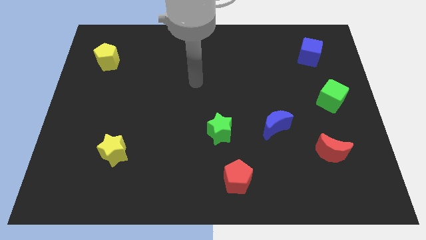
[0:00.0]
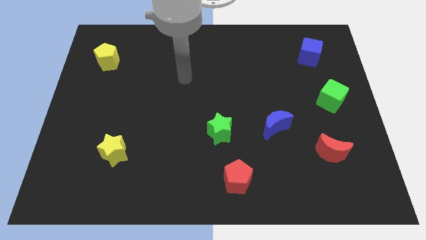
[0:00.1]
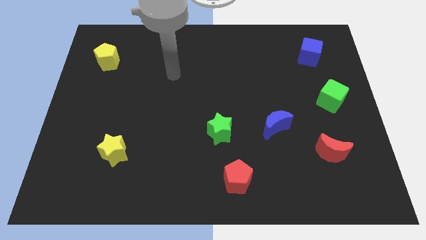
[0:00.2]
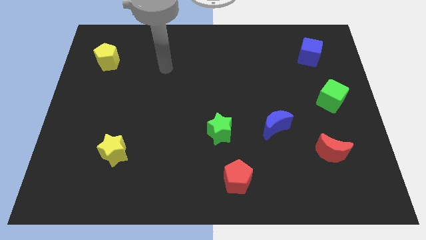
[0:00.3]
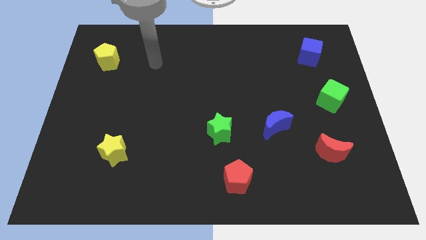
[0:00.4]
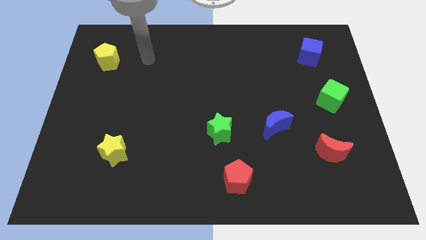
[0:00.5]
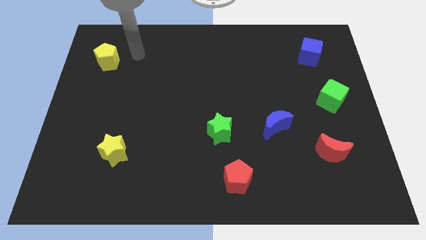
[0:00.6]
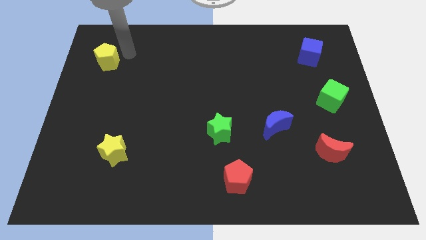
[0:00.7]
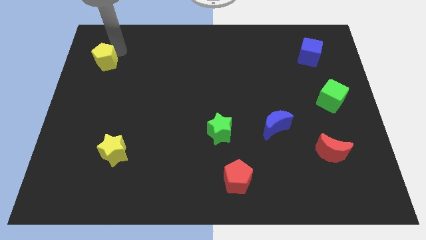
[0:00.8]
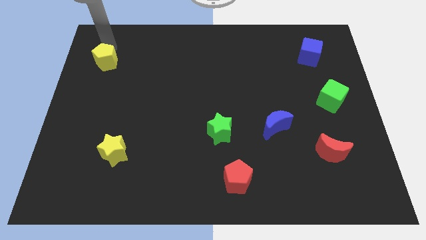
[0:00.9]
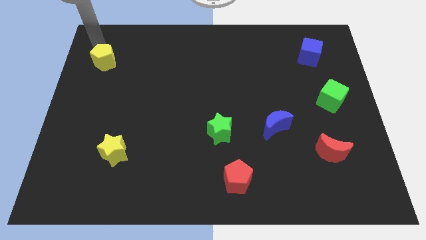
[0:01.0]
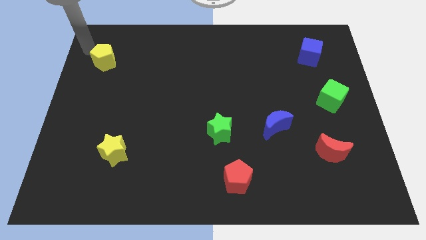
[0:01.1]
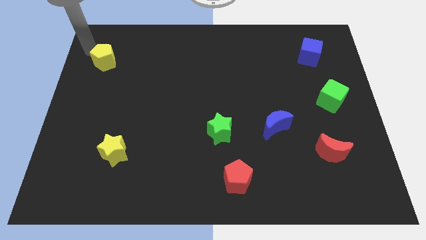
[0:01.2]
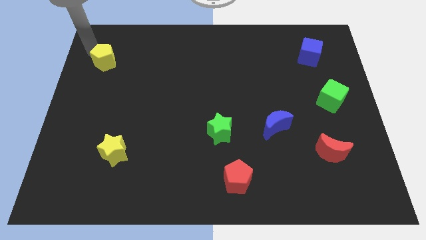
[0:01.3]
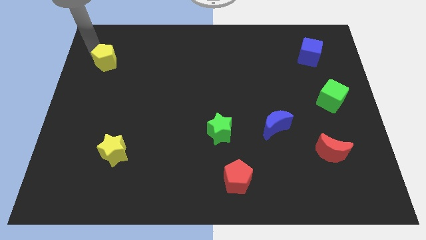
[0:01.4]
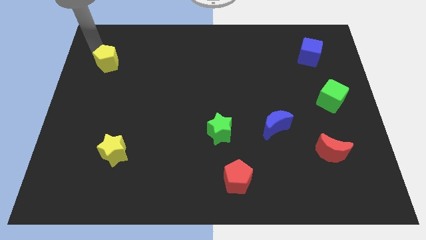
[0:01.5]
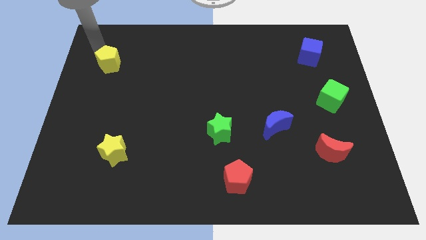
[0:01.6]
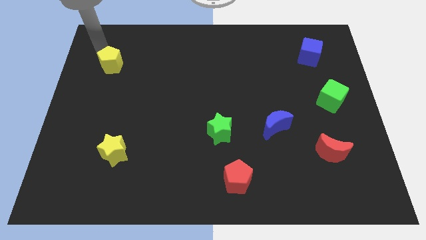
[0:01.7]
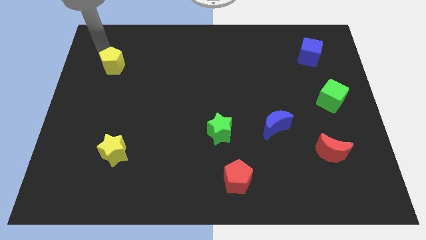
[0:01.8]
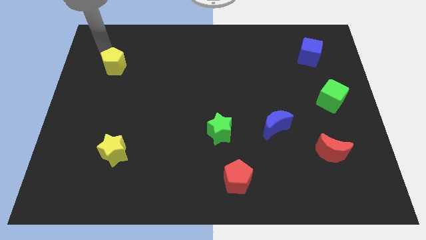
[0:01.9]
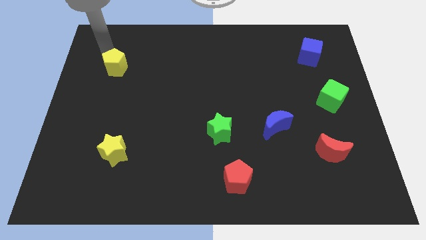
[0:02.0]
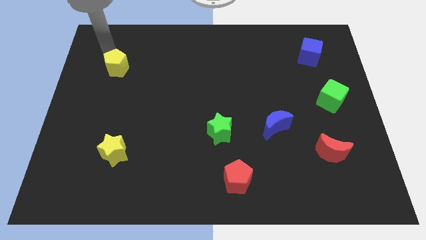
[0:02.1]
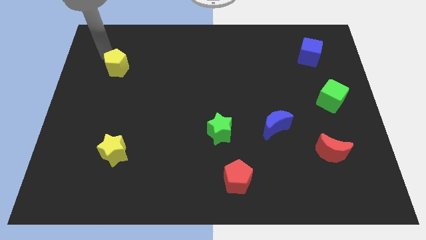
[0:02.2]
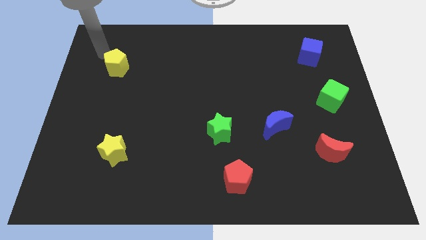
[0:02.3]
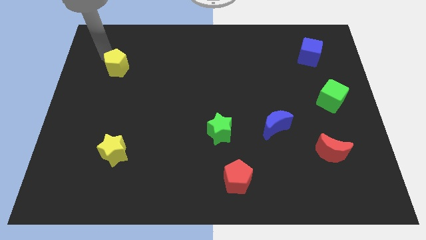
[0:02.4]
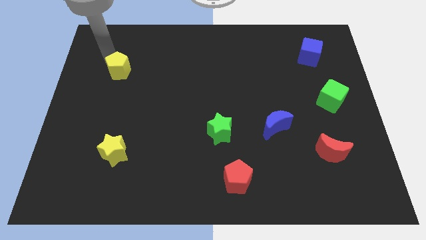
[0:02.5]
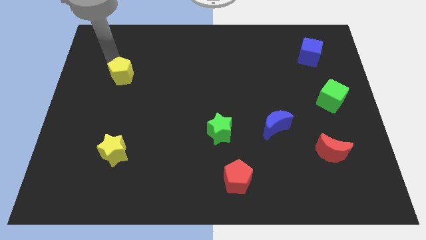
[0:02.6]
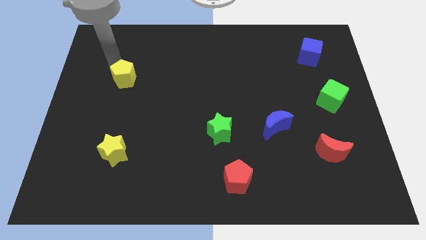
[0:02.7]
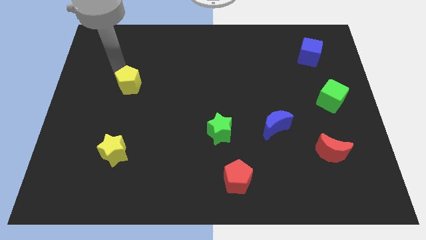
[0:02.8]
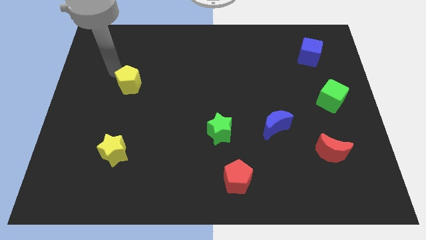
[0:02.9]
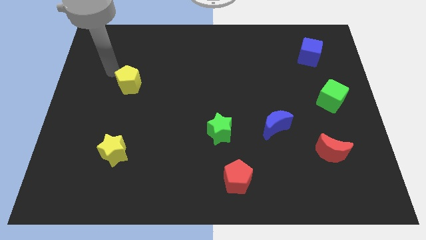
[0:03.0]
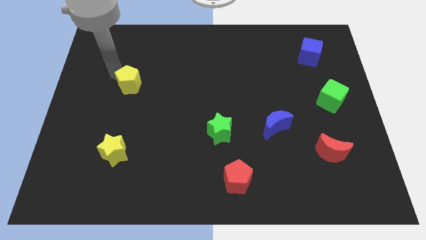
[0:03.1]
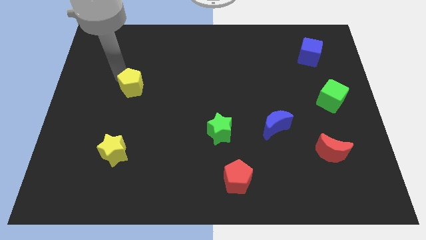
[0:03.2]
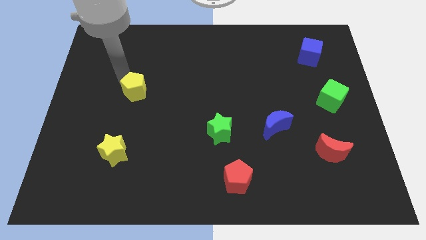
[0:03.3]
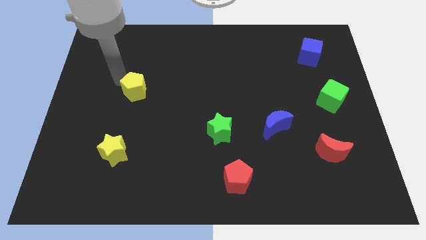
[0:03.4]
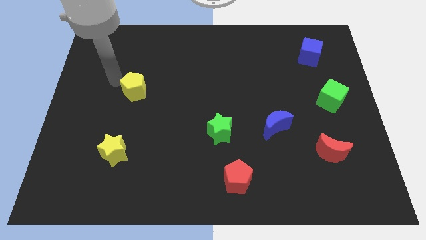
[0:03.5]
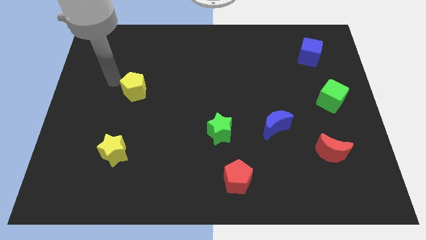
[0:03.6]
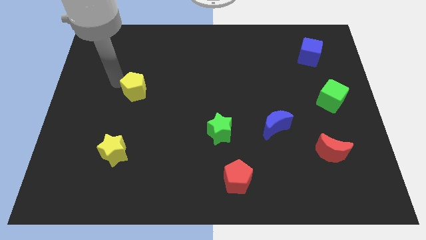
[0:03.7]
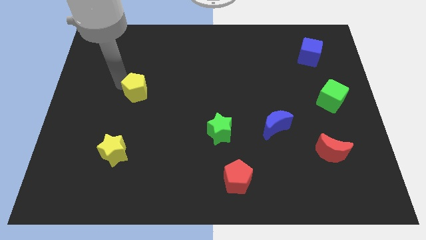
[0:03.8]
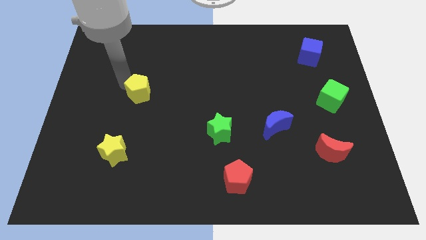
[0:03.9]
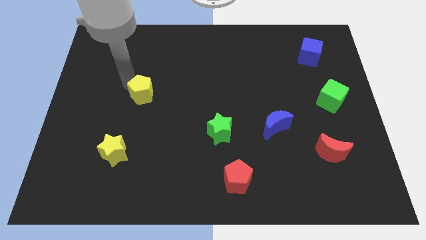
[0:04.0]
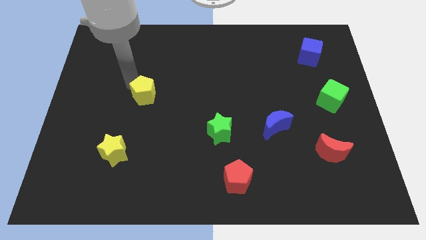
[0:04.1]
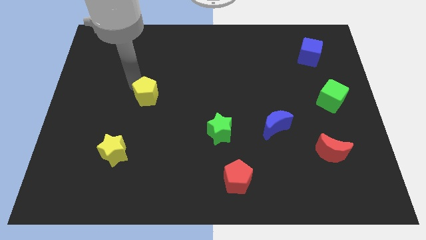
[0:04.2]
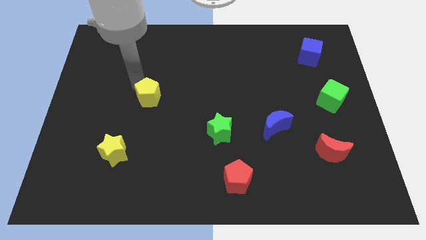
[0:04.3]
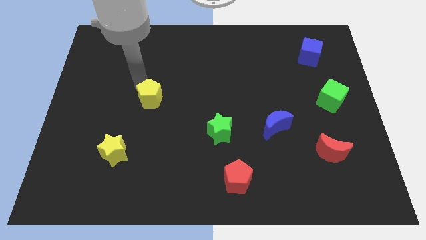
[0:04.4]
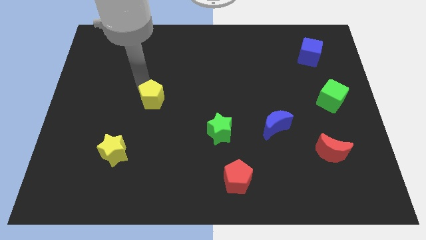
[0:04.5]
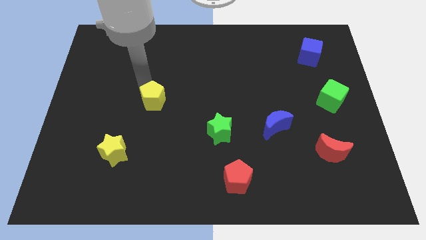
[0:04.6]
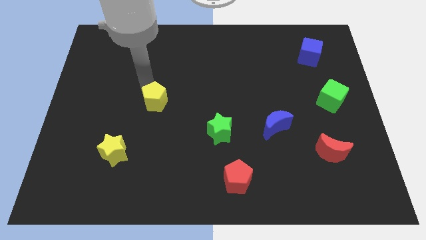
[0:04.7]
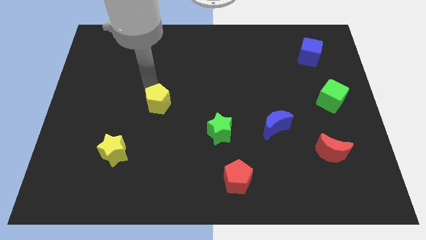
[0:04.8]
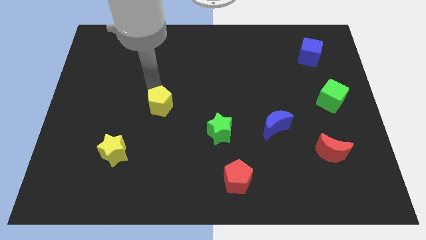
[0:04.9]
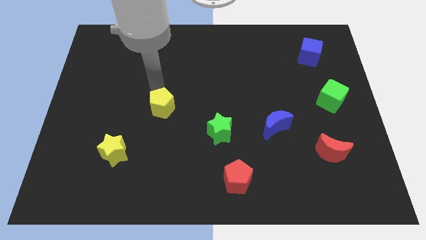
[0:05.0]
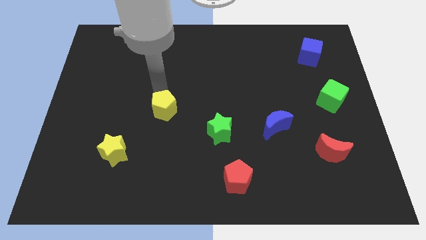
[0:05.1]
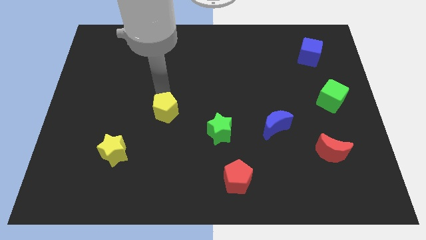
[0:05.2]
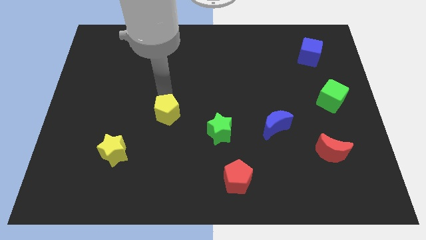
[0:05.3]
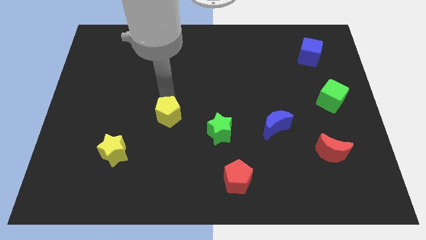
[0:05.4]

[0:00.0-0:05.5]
put the yellow pentagon to the left of the green star

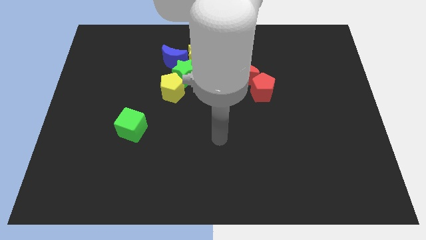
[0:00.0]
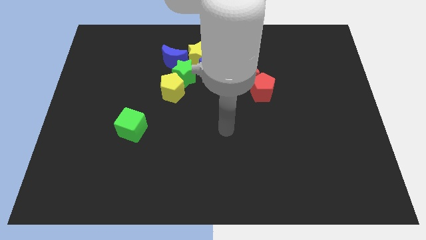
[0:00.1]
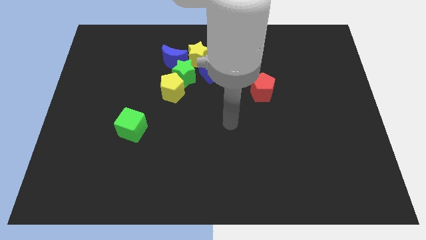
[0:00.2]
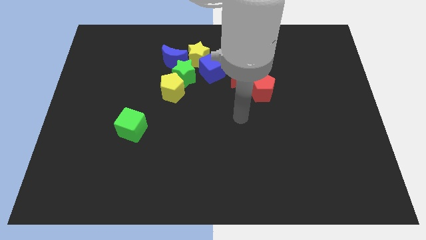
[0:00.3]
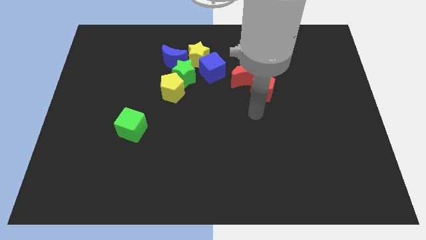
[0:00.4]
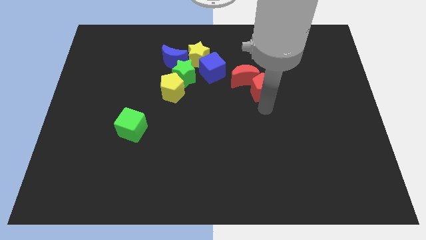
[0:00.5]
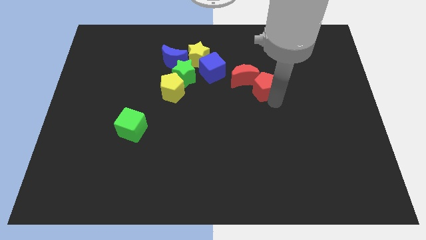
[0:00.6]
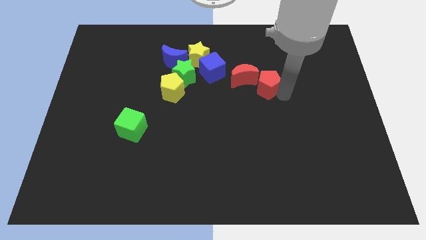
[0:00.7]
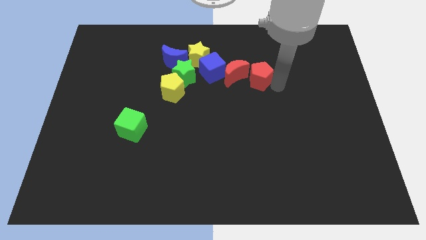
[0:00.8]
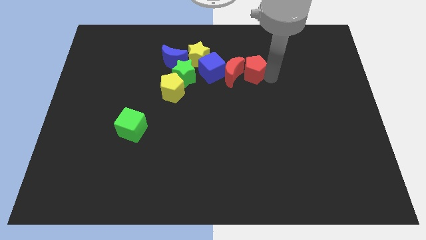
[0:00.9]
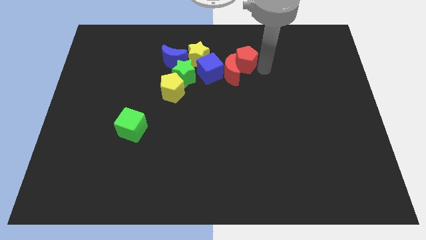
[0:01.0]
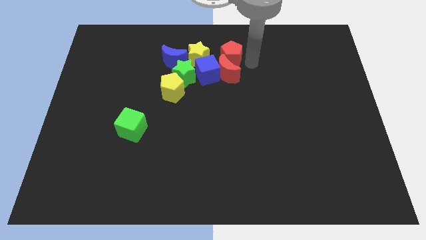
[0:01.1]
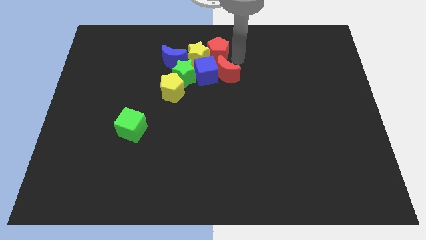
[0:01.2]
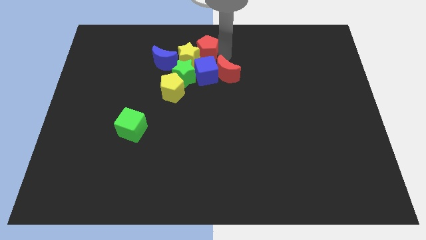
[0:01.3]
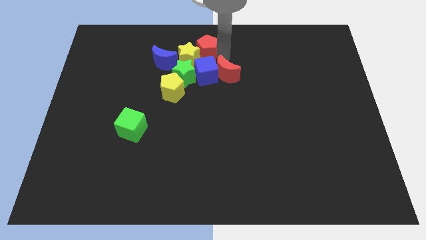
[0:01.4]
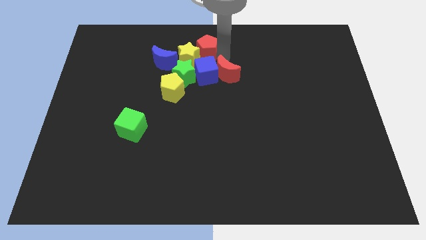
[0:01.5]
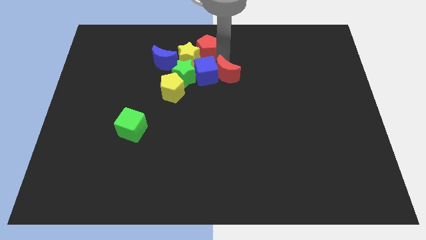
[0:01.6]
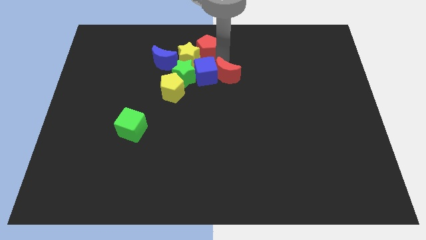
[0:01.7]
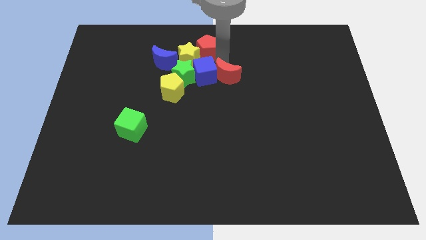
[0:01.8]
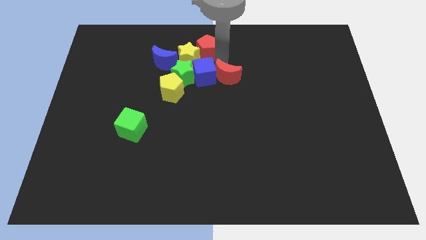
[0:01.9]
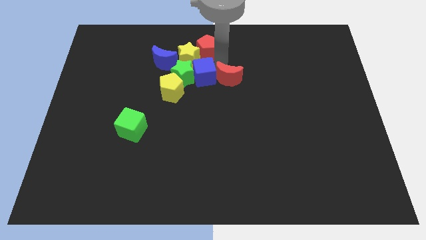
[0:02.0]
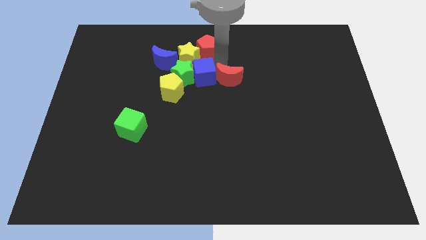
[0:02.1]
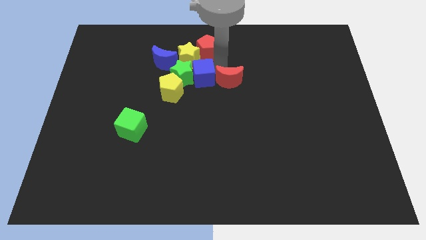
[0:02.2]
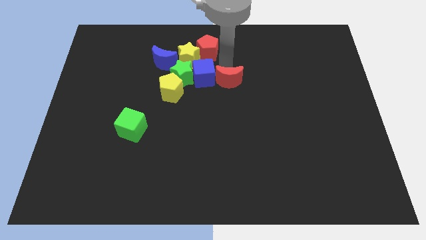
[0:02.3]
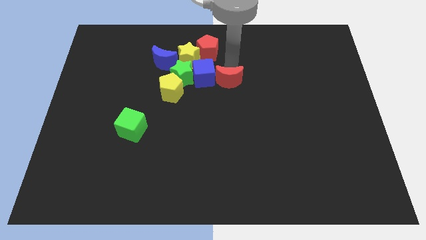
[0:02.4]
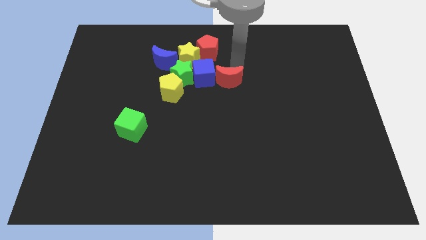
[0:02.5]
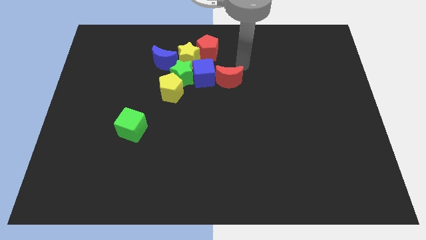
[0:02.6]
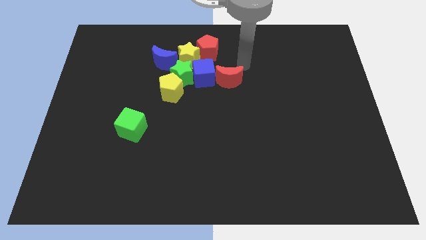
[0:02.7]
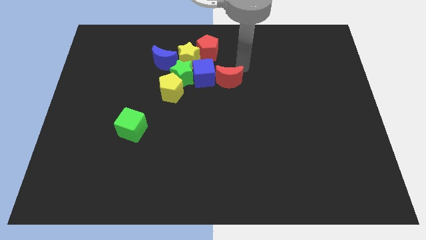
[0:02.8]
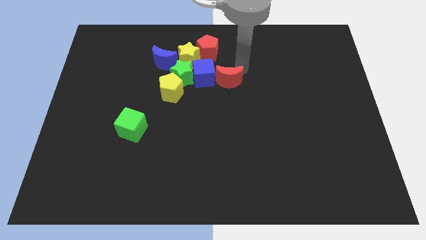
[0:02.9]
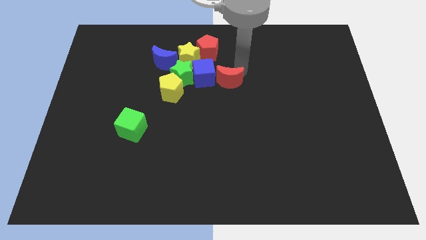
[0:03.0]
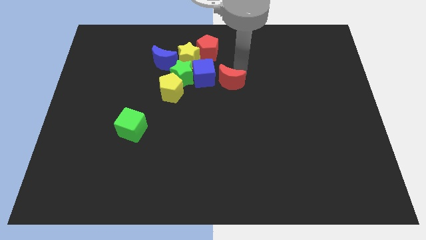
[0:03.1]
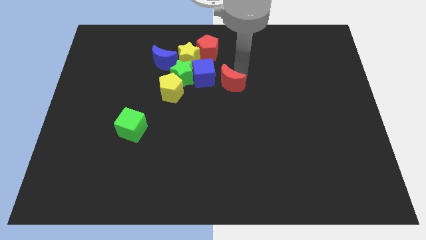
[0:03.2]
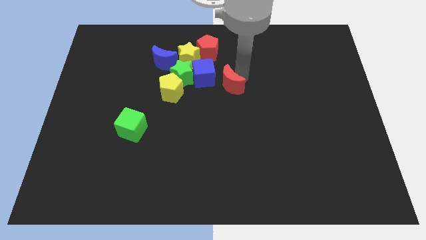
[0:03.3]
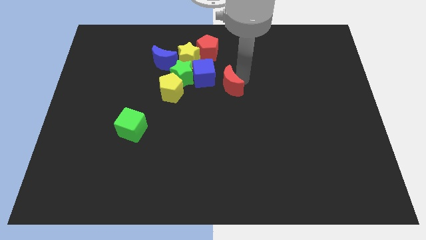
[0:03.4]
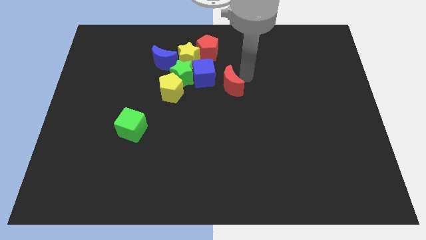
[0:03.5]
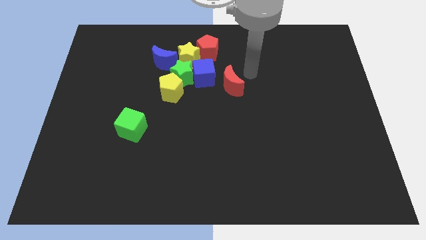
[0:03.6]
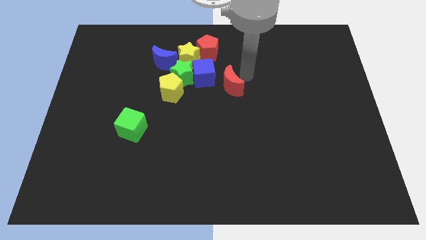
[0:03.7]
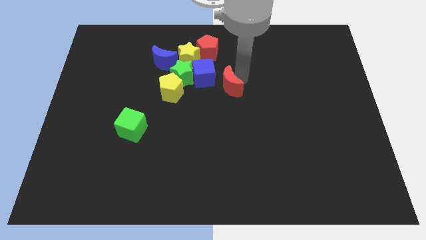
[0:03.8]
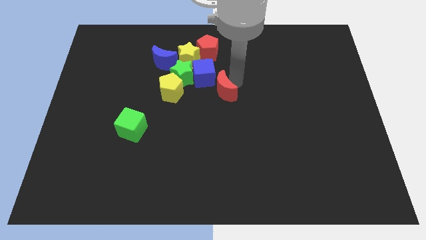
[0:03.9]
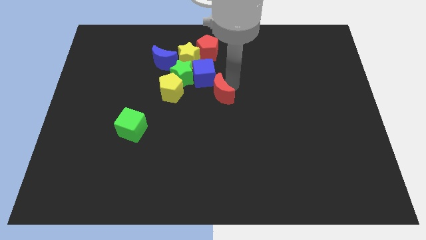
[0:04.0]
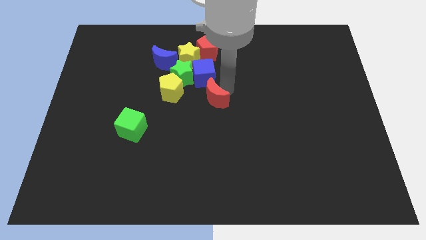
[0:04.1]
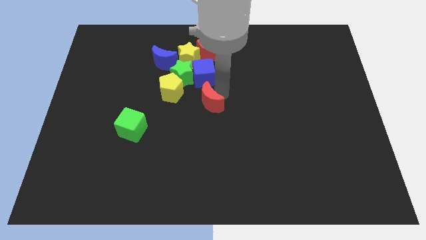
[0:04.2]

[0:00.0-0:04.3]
push the red moon to the bottom right side of the yellow pentagon
